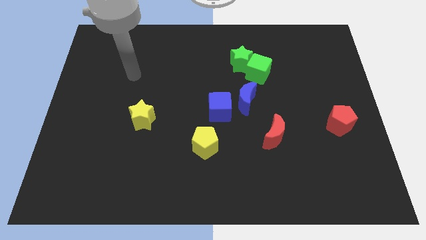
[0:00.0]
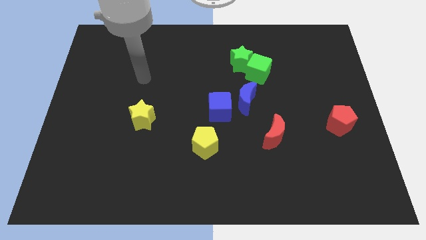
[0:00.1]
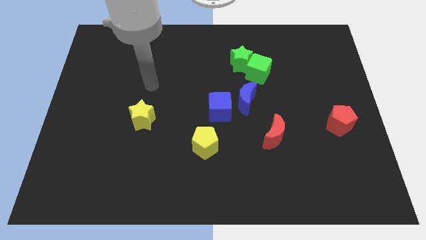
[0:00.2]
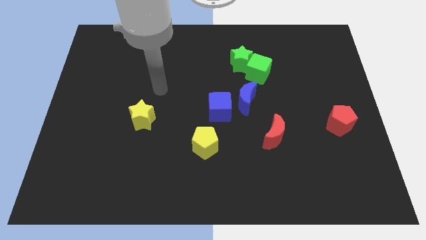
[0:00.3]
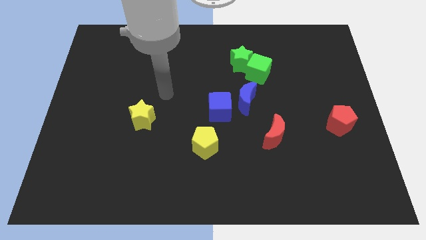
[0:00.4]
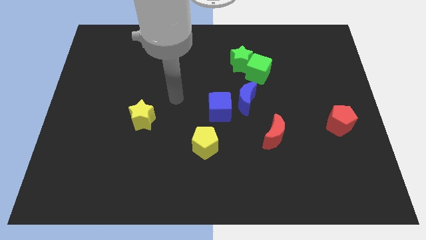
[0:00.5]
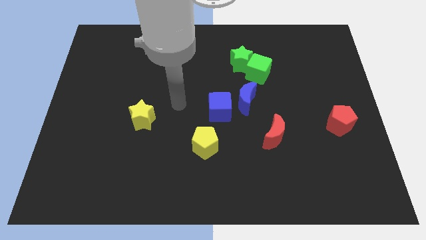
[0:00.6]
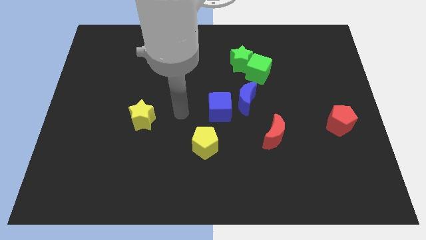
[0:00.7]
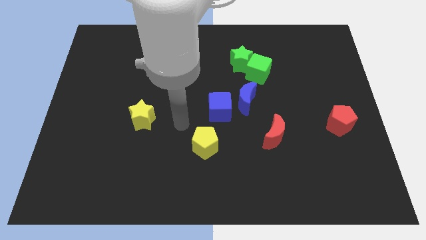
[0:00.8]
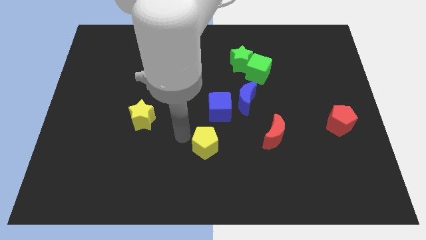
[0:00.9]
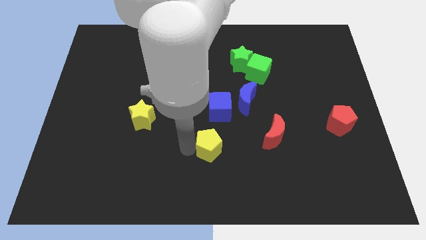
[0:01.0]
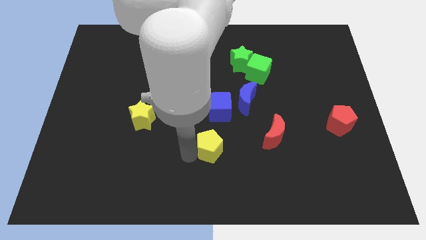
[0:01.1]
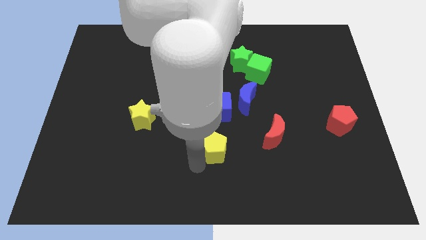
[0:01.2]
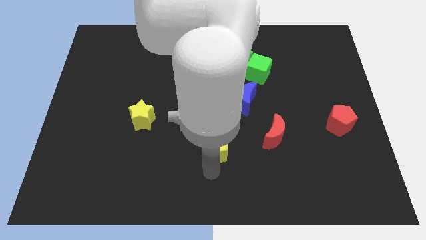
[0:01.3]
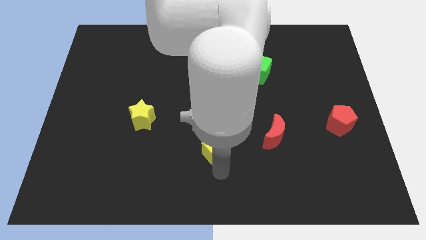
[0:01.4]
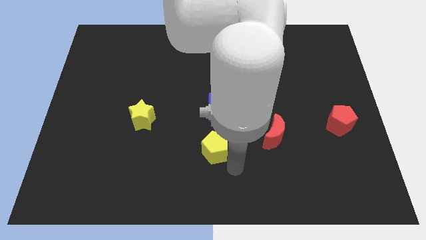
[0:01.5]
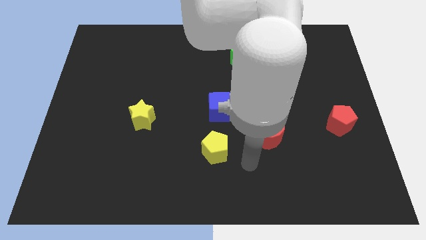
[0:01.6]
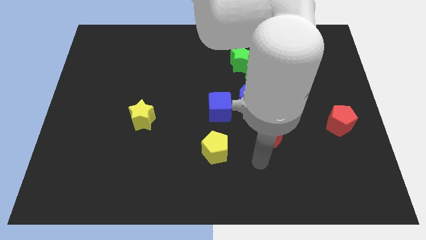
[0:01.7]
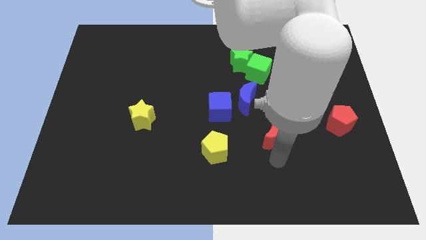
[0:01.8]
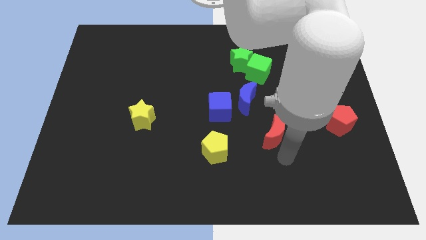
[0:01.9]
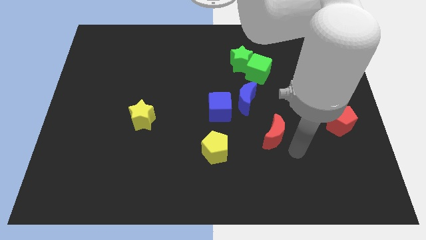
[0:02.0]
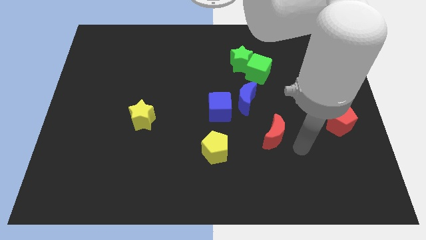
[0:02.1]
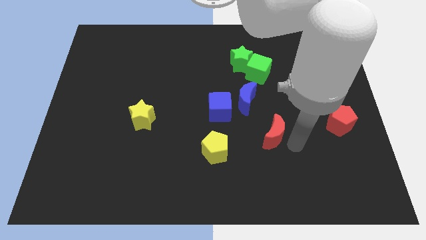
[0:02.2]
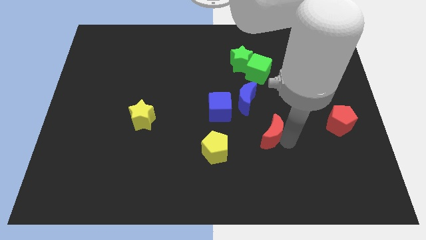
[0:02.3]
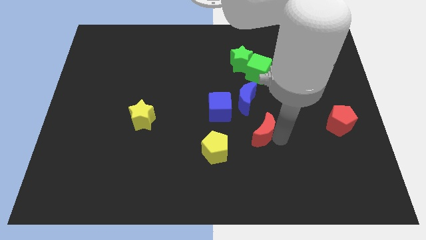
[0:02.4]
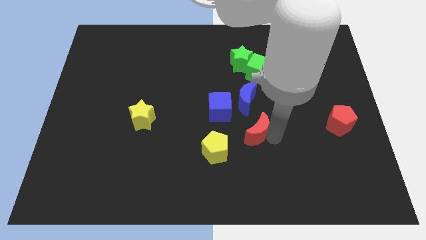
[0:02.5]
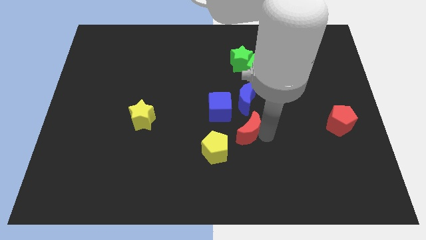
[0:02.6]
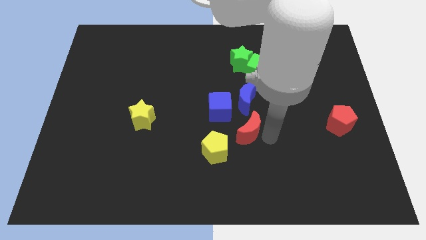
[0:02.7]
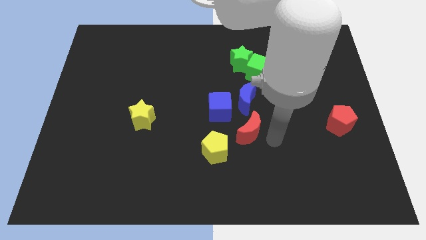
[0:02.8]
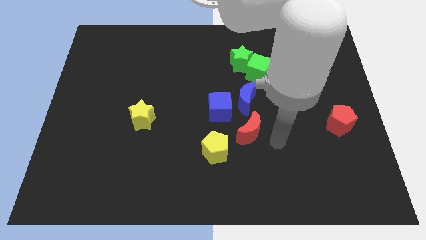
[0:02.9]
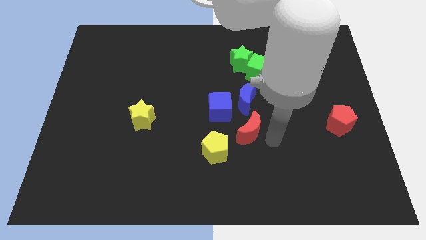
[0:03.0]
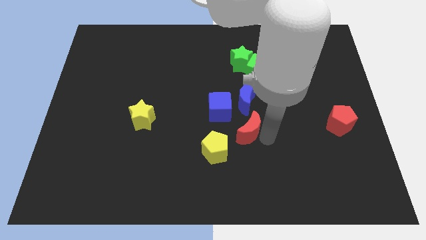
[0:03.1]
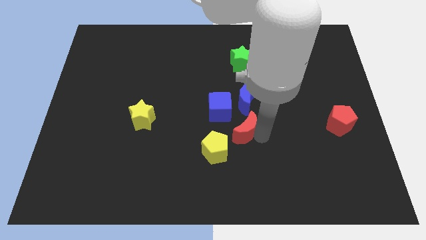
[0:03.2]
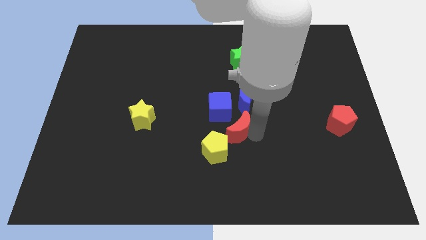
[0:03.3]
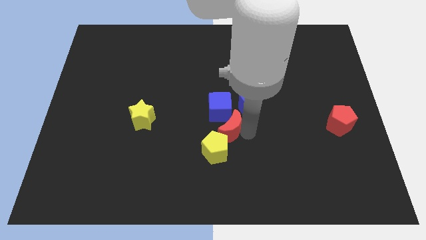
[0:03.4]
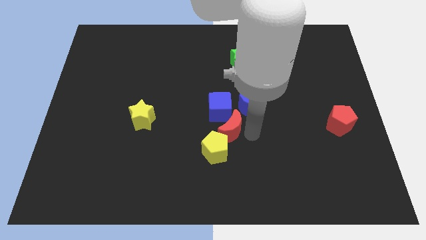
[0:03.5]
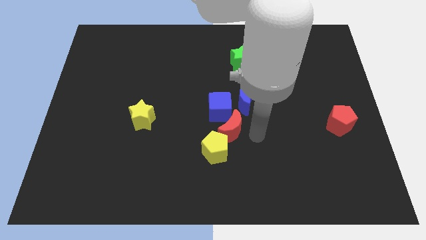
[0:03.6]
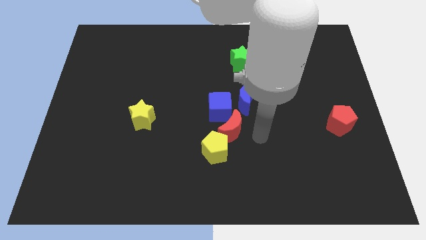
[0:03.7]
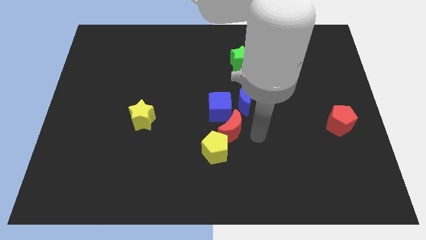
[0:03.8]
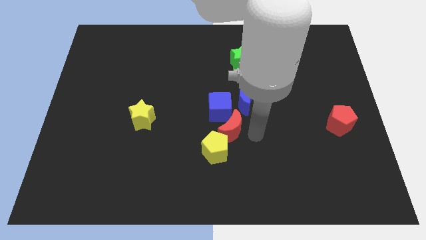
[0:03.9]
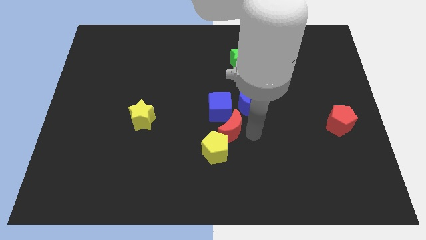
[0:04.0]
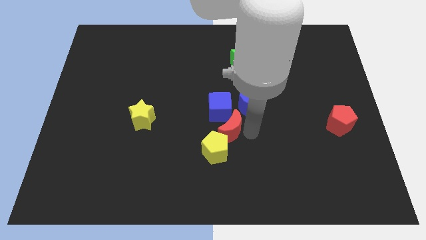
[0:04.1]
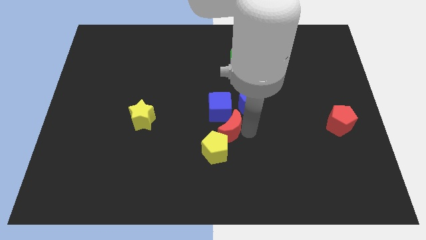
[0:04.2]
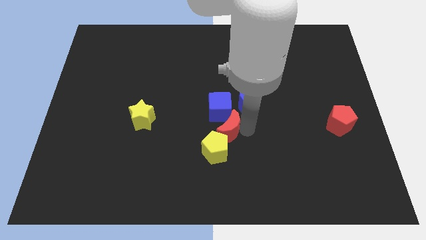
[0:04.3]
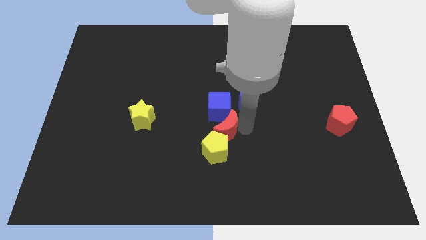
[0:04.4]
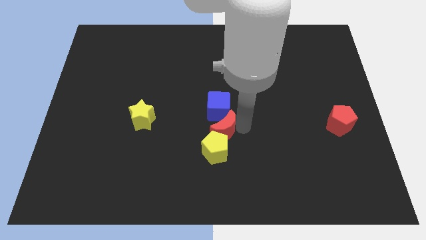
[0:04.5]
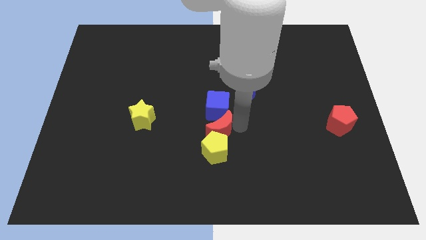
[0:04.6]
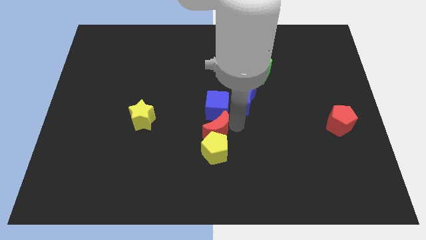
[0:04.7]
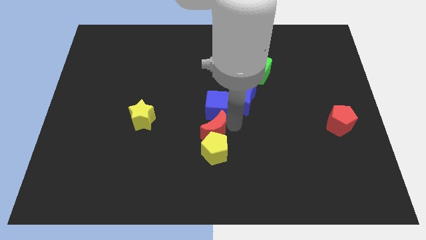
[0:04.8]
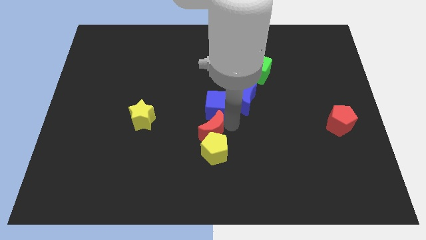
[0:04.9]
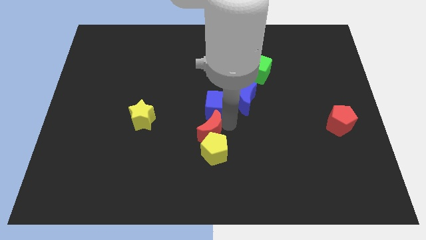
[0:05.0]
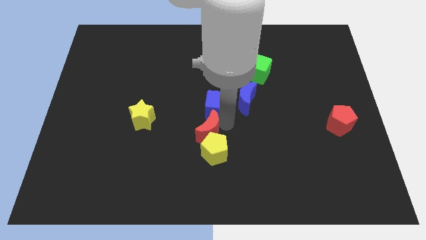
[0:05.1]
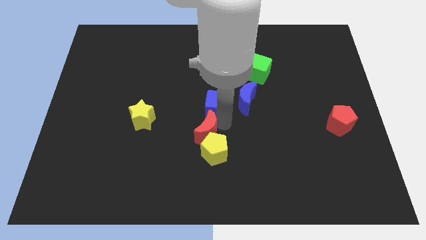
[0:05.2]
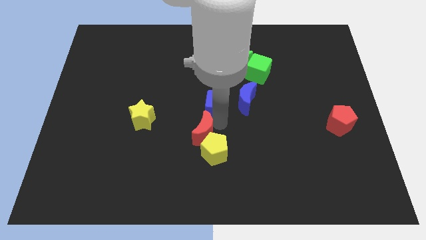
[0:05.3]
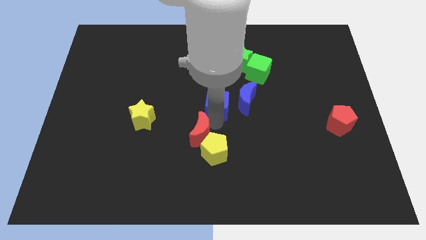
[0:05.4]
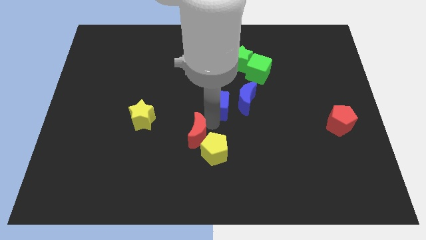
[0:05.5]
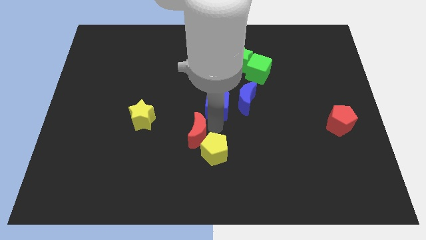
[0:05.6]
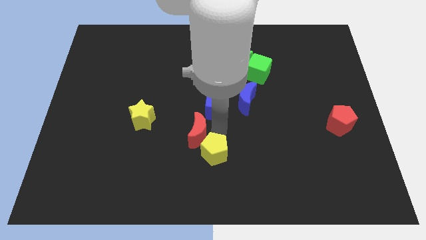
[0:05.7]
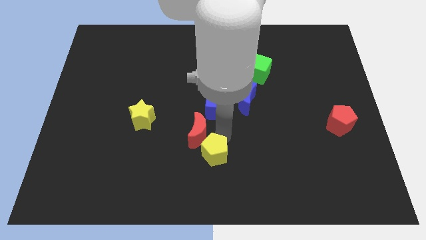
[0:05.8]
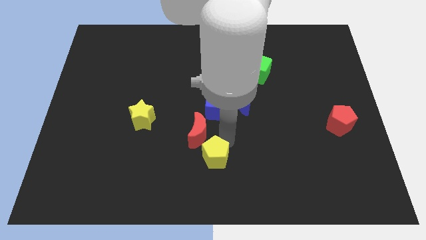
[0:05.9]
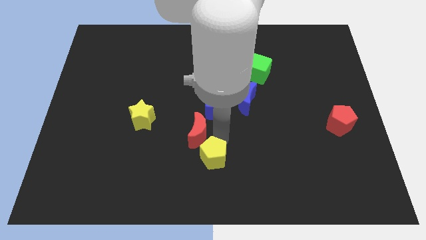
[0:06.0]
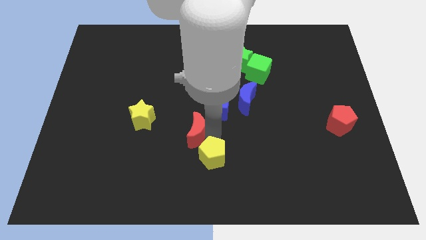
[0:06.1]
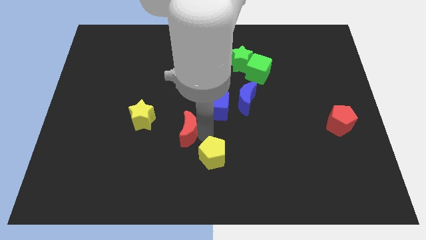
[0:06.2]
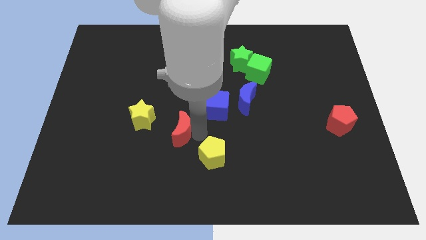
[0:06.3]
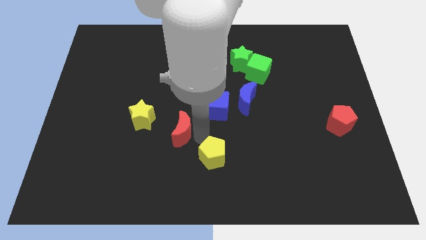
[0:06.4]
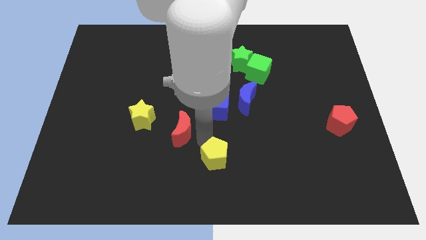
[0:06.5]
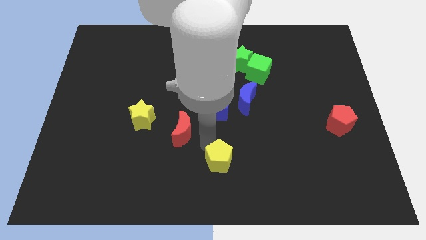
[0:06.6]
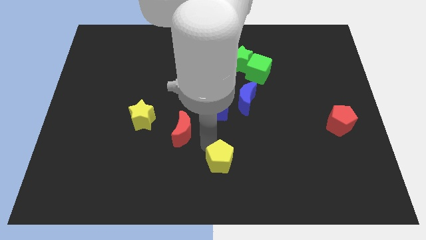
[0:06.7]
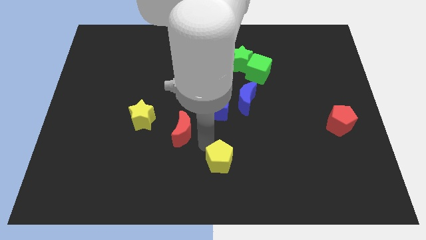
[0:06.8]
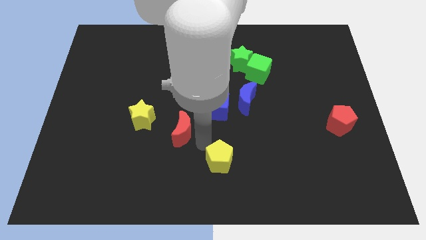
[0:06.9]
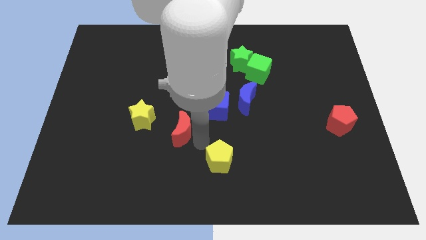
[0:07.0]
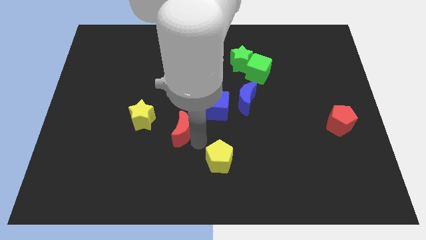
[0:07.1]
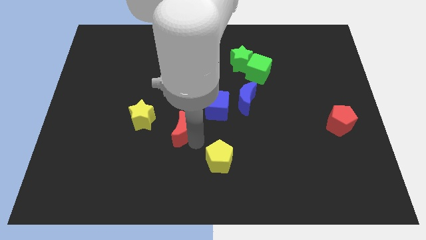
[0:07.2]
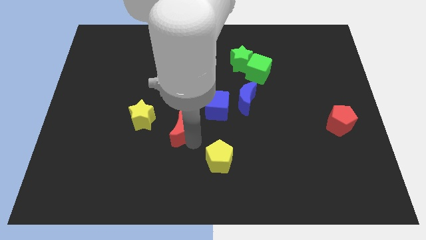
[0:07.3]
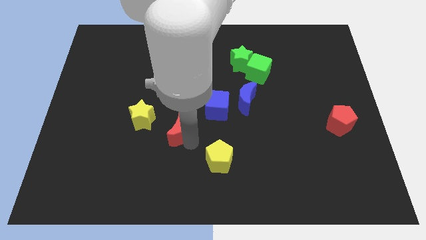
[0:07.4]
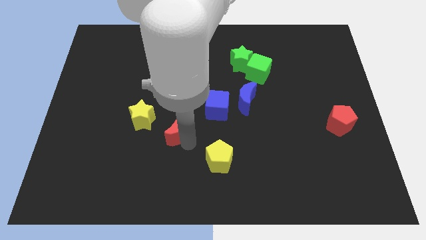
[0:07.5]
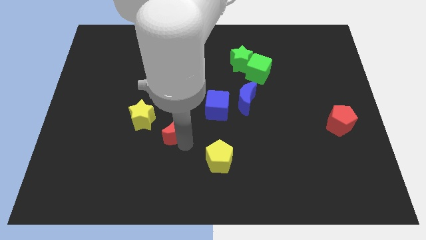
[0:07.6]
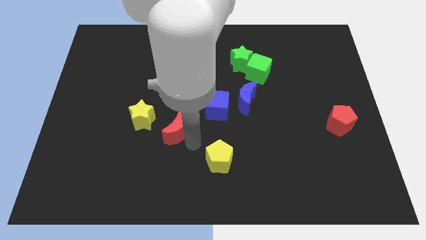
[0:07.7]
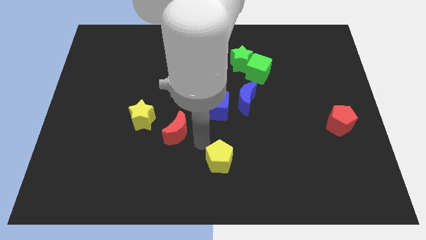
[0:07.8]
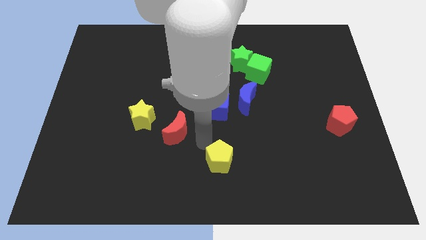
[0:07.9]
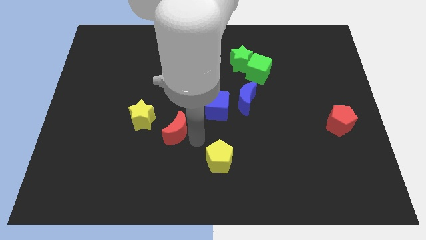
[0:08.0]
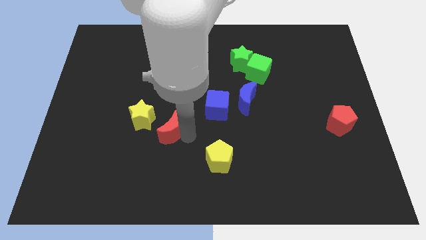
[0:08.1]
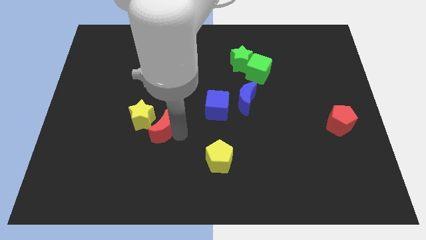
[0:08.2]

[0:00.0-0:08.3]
put the red moon next to the yellow star
